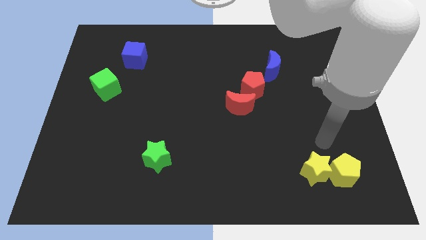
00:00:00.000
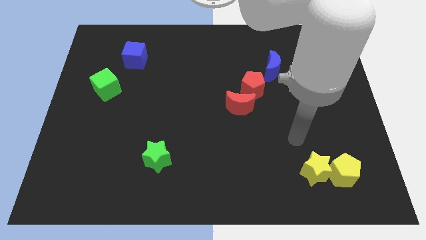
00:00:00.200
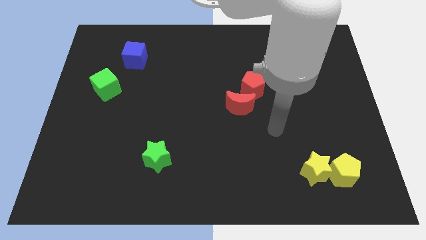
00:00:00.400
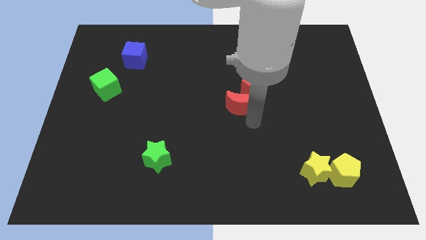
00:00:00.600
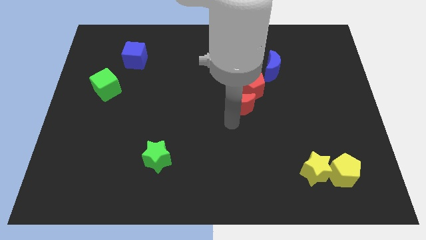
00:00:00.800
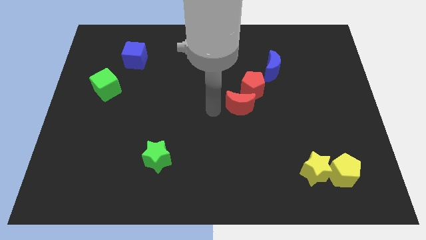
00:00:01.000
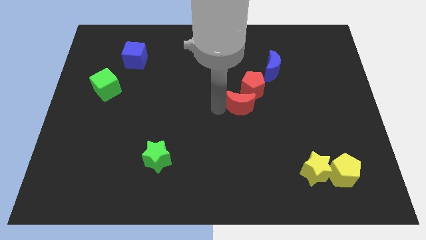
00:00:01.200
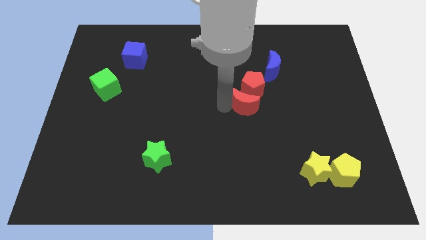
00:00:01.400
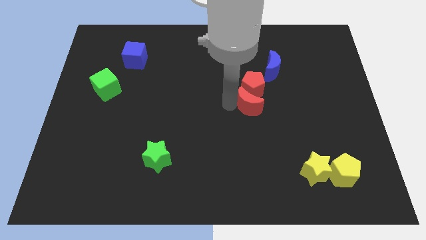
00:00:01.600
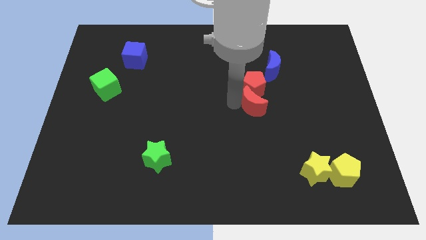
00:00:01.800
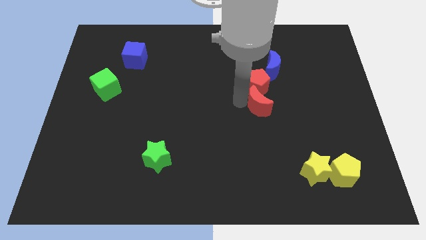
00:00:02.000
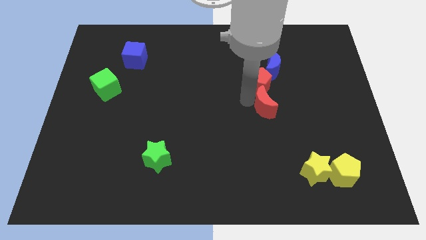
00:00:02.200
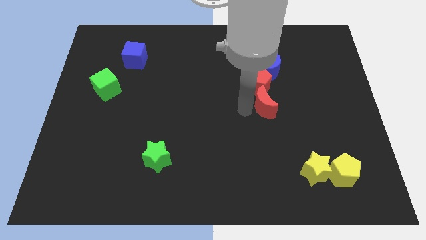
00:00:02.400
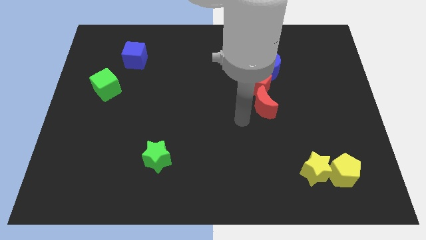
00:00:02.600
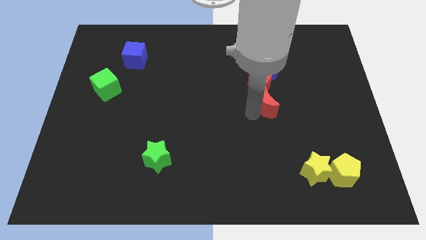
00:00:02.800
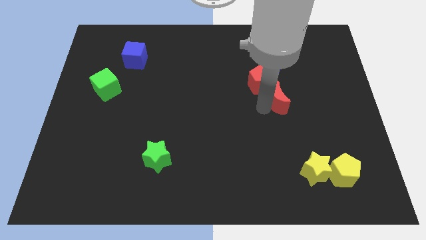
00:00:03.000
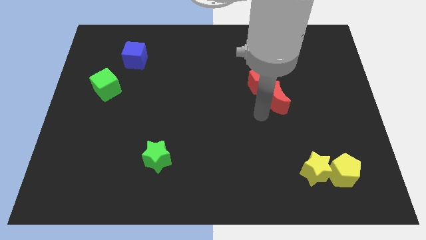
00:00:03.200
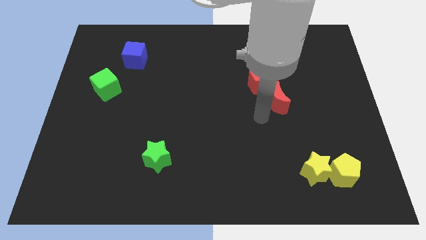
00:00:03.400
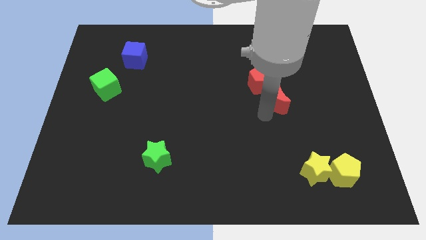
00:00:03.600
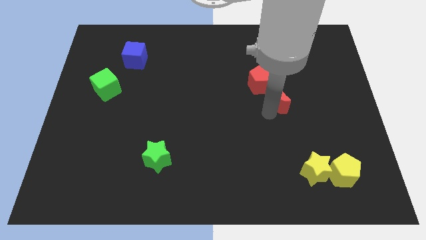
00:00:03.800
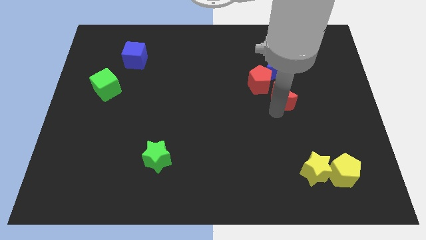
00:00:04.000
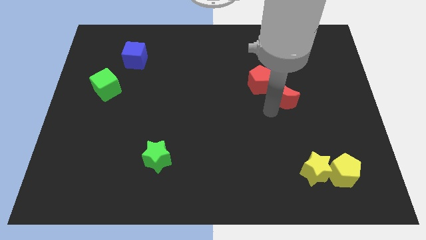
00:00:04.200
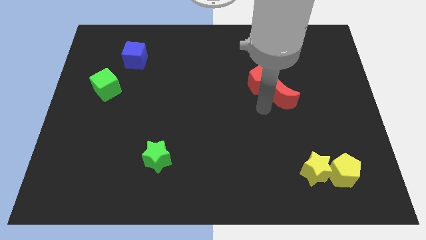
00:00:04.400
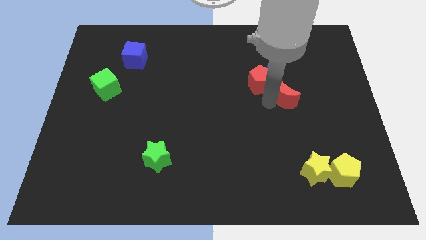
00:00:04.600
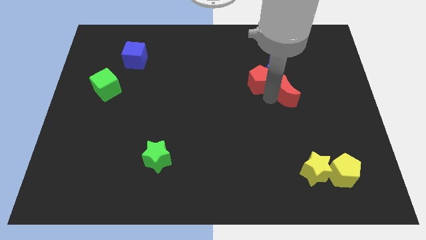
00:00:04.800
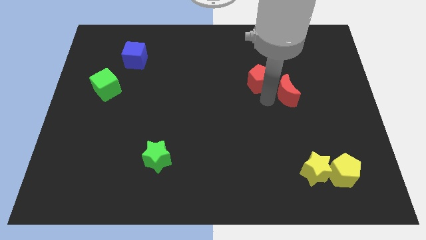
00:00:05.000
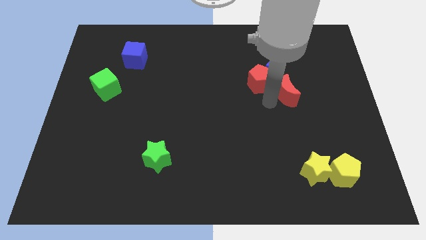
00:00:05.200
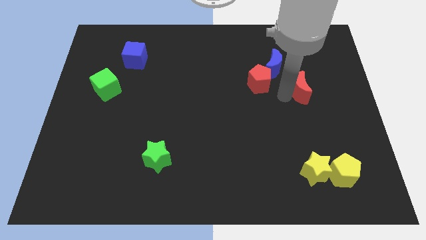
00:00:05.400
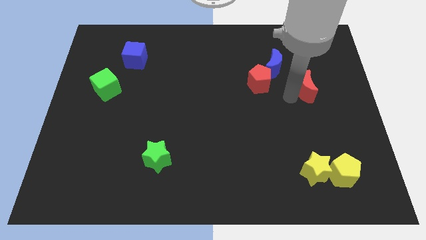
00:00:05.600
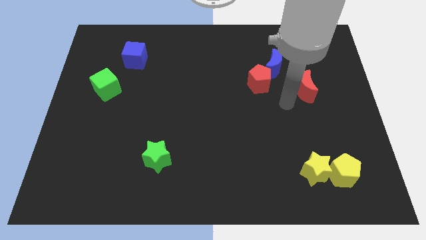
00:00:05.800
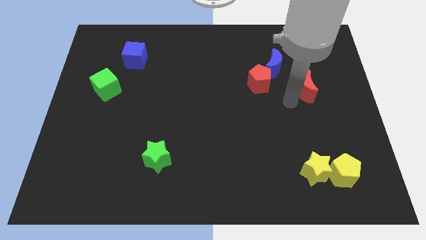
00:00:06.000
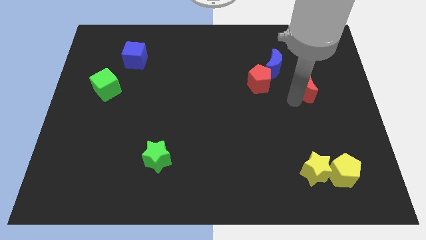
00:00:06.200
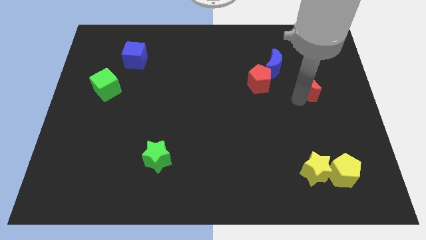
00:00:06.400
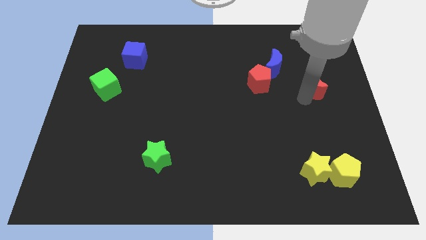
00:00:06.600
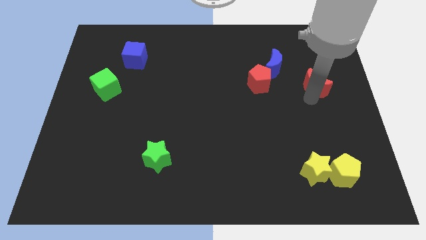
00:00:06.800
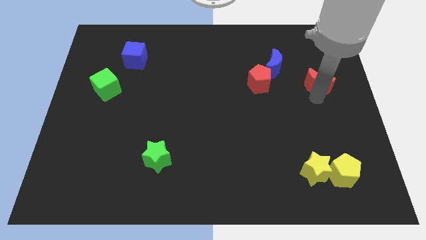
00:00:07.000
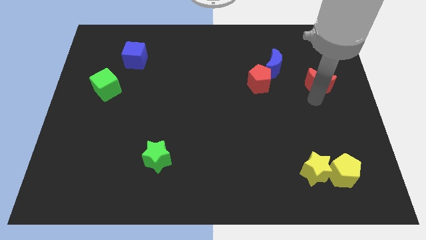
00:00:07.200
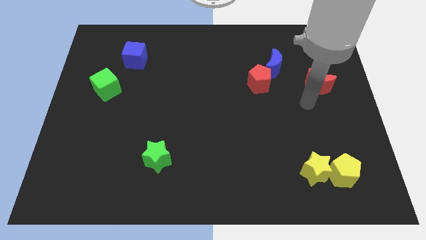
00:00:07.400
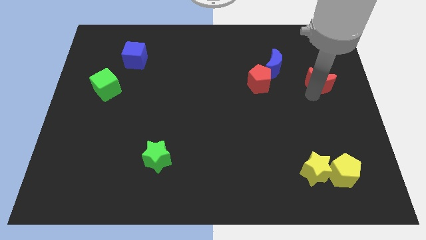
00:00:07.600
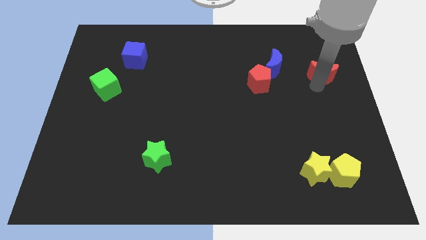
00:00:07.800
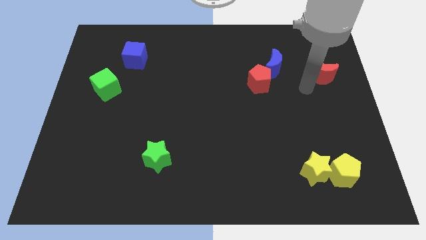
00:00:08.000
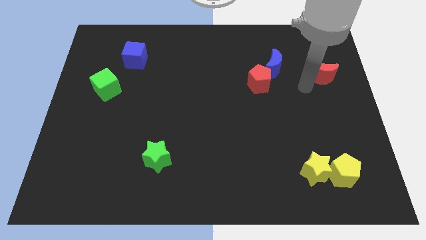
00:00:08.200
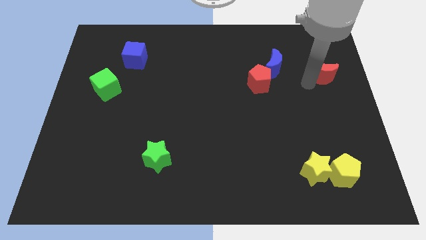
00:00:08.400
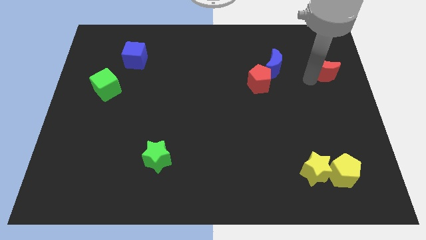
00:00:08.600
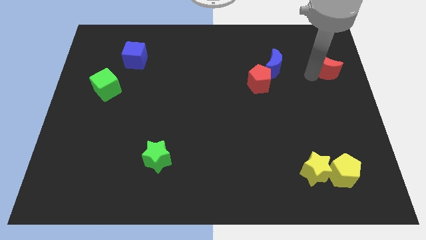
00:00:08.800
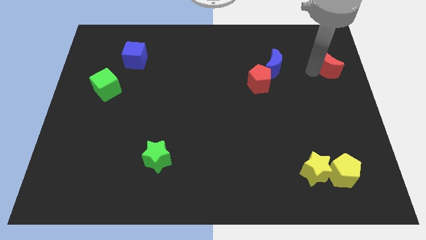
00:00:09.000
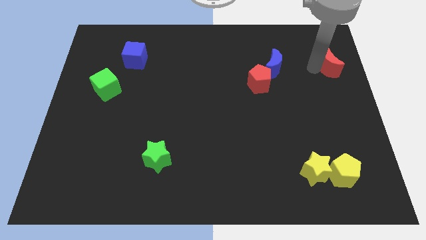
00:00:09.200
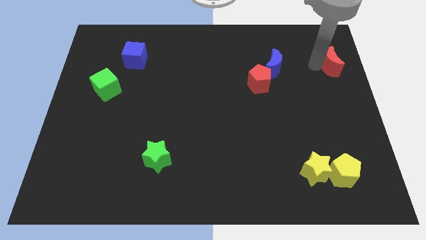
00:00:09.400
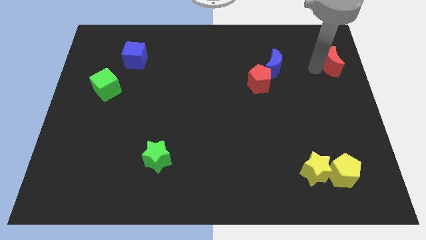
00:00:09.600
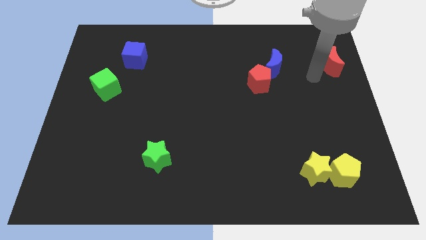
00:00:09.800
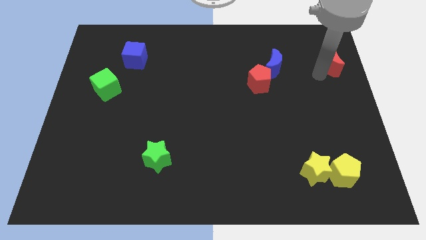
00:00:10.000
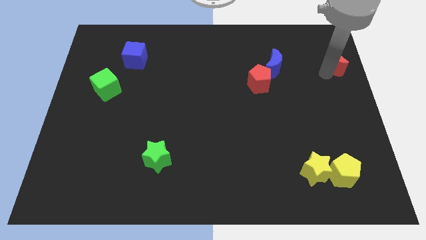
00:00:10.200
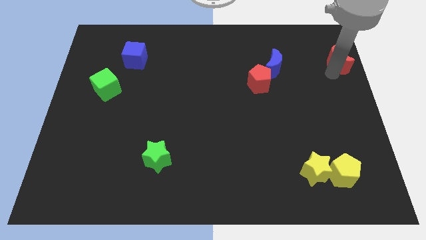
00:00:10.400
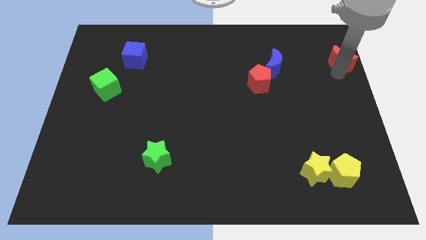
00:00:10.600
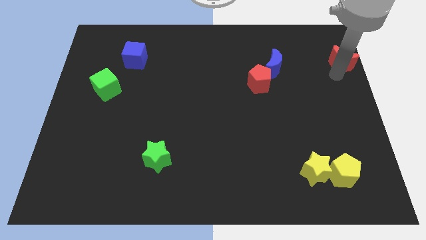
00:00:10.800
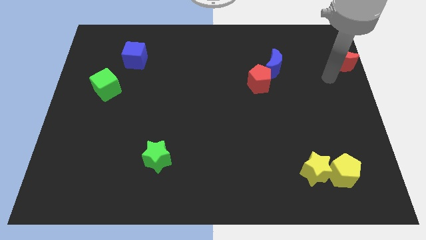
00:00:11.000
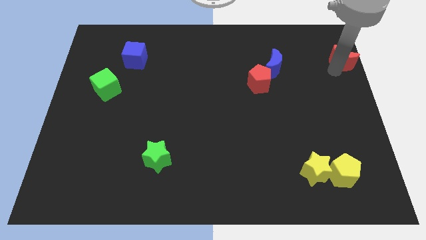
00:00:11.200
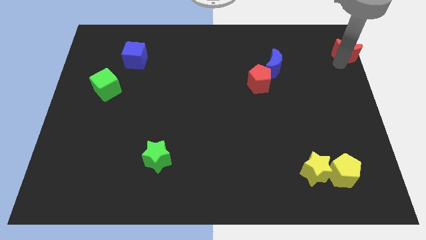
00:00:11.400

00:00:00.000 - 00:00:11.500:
push the red moon to the top right of the board

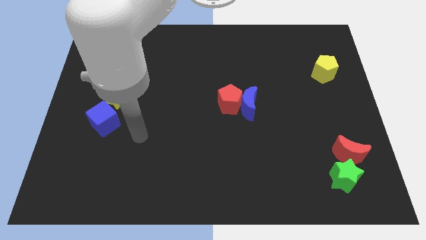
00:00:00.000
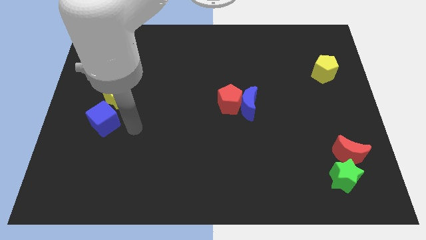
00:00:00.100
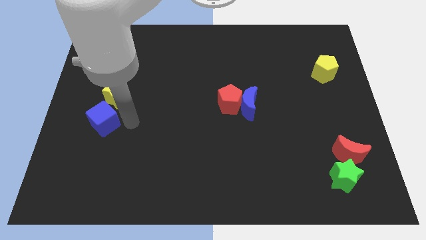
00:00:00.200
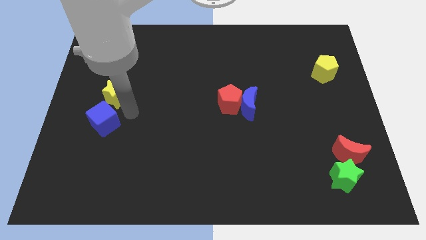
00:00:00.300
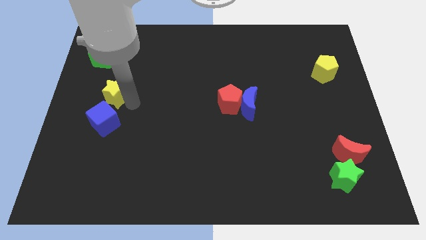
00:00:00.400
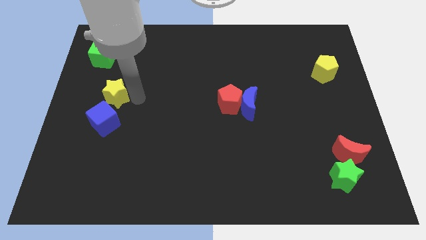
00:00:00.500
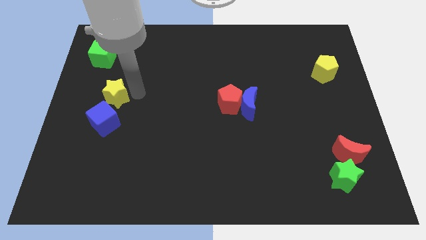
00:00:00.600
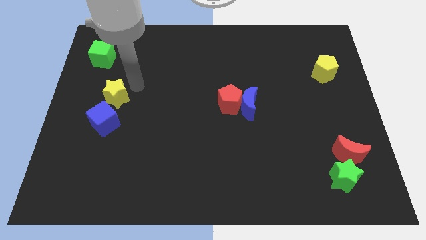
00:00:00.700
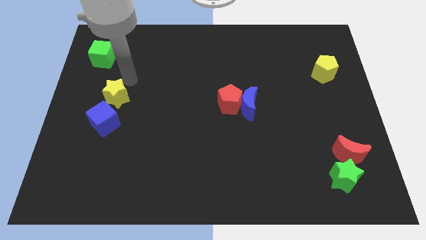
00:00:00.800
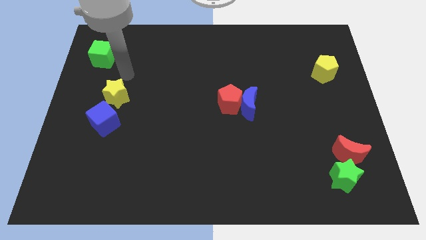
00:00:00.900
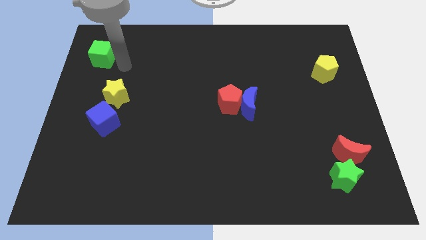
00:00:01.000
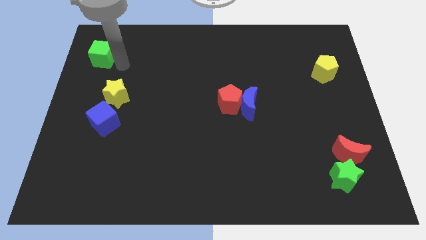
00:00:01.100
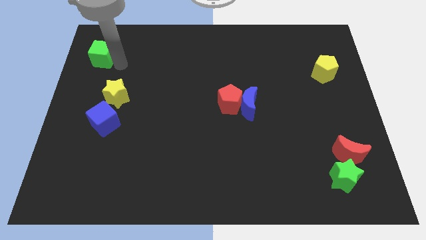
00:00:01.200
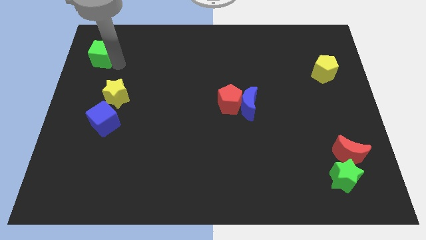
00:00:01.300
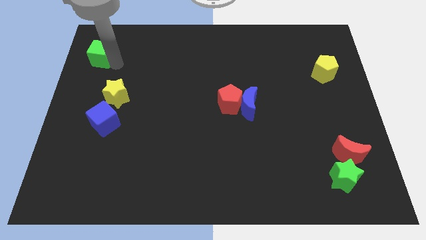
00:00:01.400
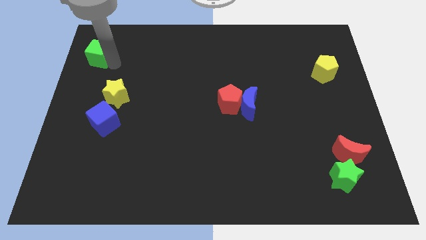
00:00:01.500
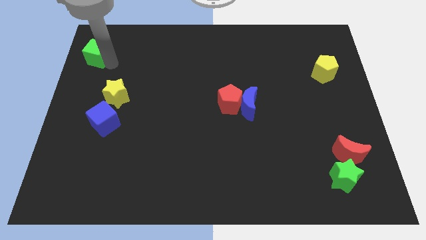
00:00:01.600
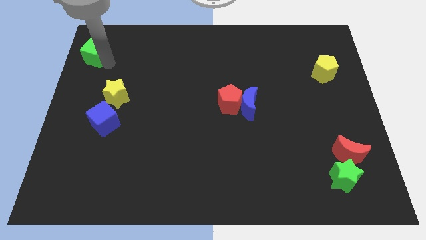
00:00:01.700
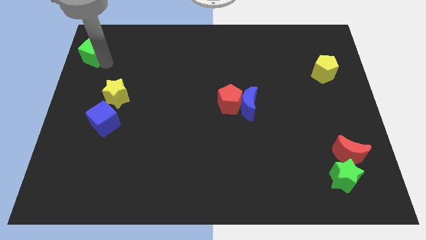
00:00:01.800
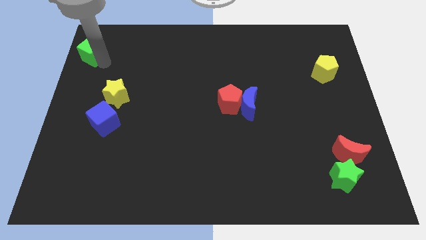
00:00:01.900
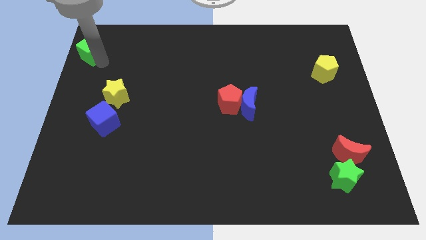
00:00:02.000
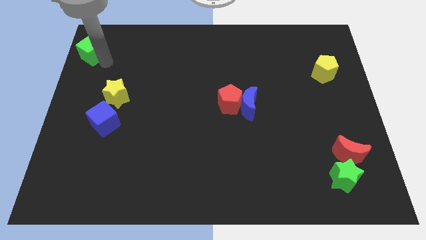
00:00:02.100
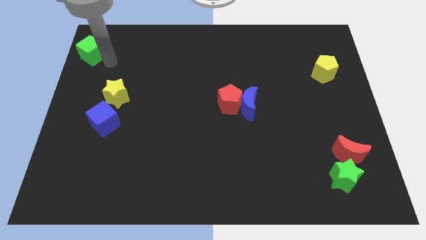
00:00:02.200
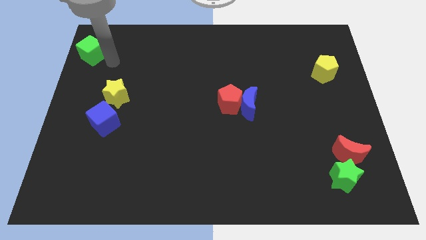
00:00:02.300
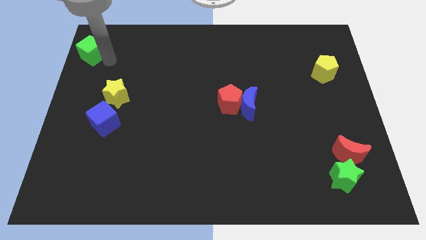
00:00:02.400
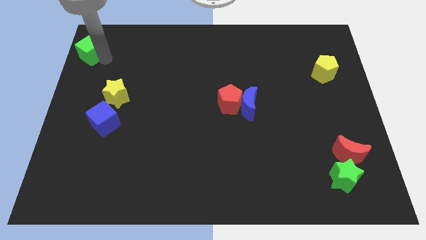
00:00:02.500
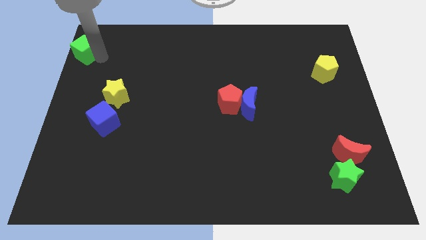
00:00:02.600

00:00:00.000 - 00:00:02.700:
move the green cube to the top left corner
